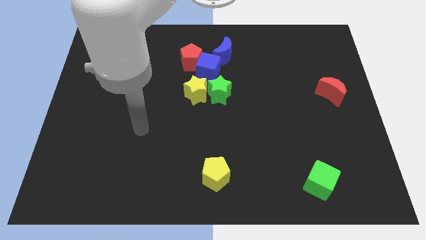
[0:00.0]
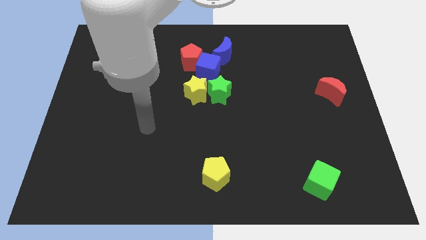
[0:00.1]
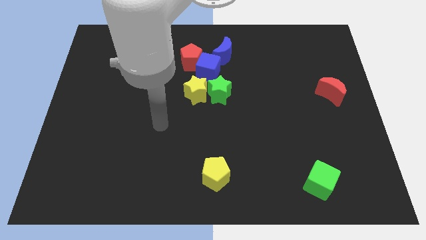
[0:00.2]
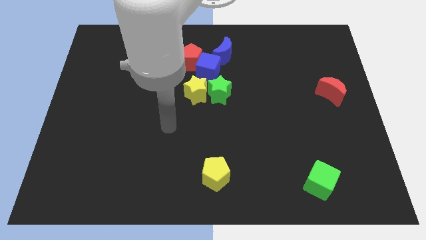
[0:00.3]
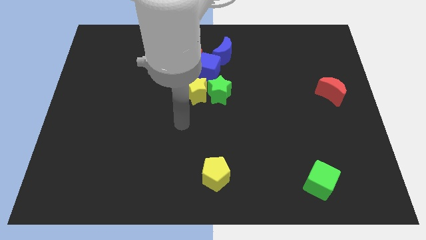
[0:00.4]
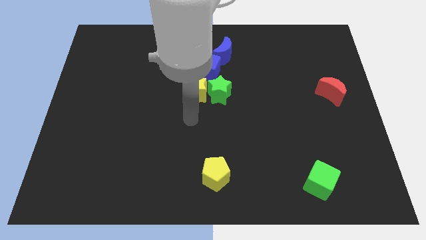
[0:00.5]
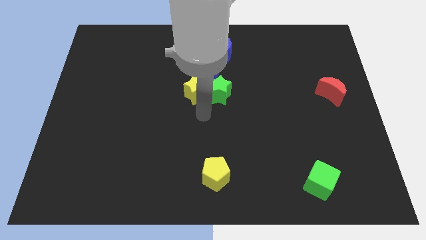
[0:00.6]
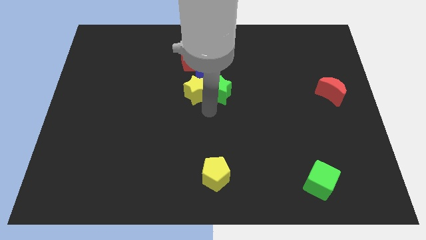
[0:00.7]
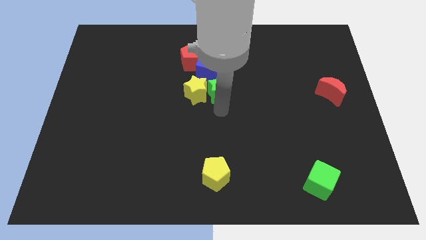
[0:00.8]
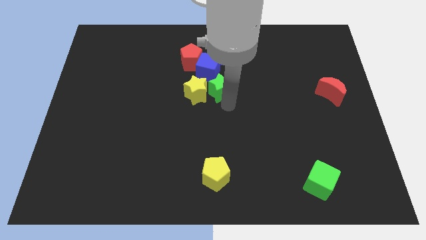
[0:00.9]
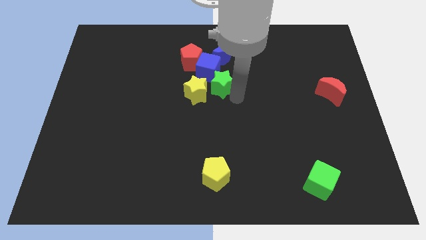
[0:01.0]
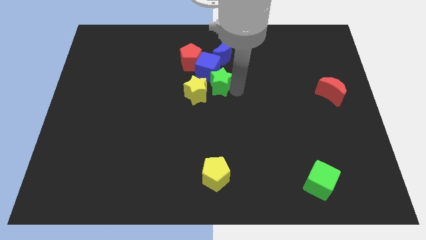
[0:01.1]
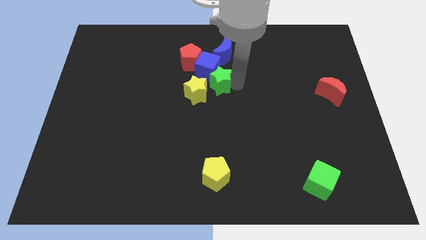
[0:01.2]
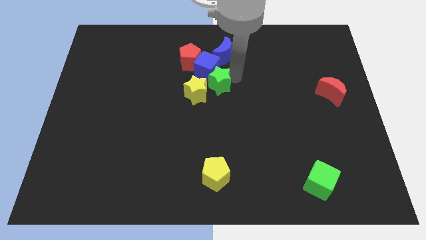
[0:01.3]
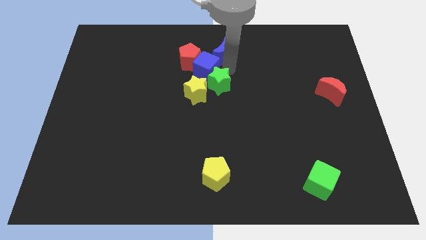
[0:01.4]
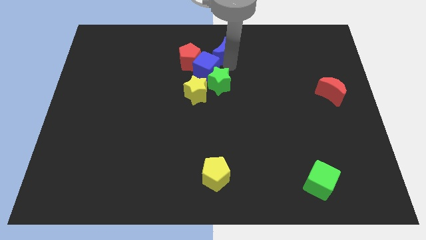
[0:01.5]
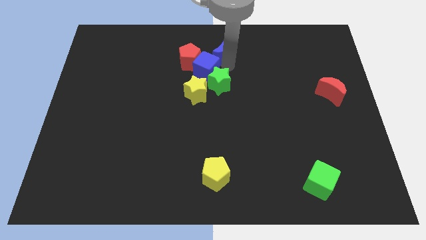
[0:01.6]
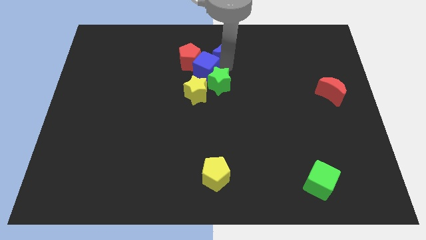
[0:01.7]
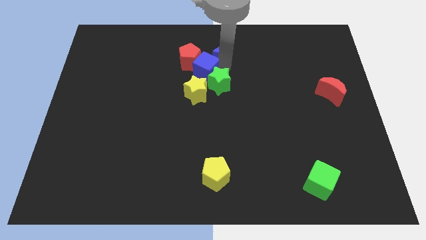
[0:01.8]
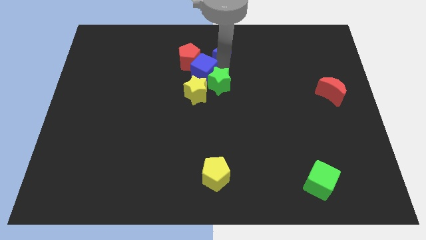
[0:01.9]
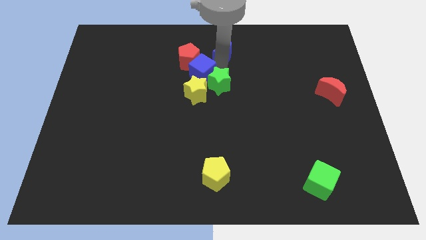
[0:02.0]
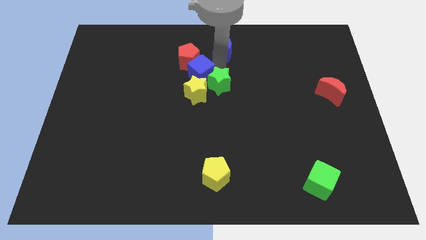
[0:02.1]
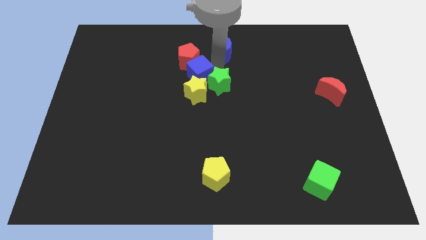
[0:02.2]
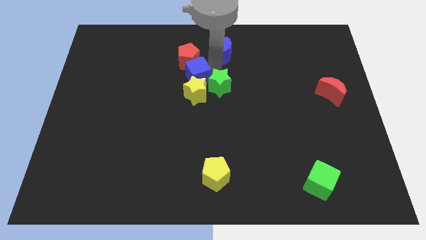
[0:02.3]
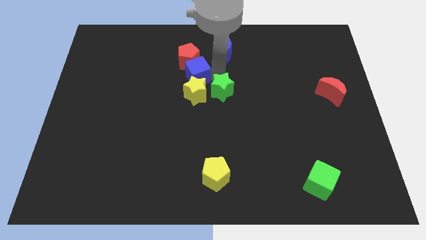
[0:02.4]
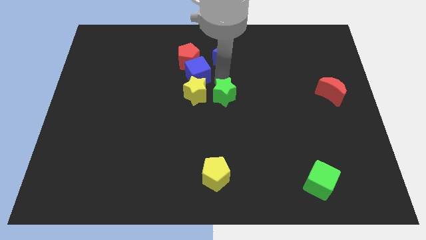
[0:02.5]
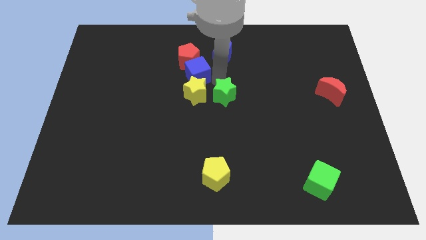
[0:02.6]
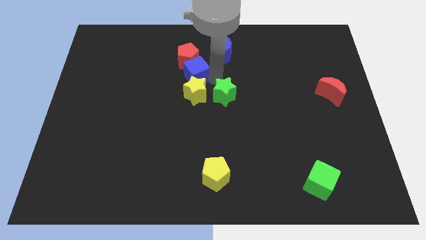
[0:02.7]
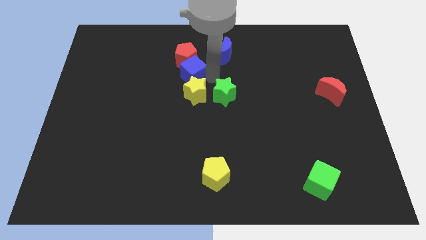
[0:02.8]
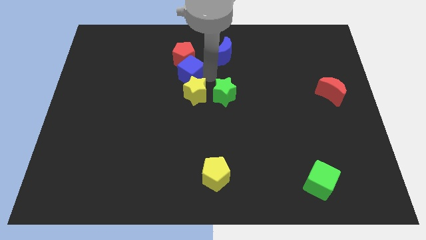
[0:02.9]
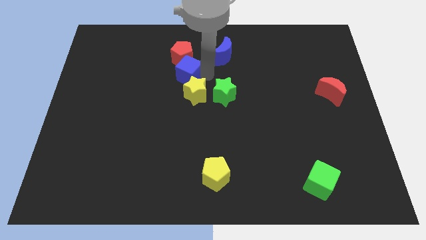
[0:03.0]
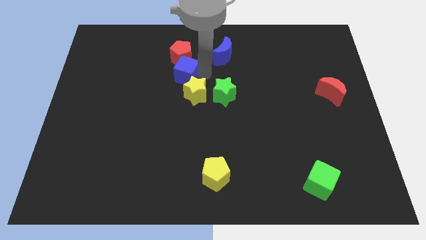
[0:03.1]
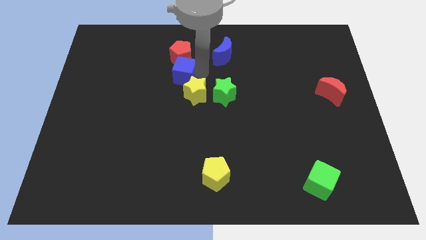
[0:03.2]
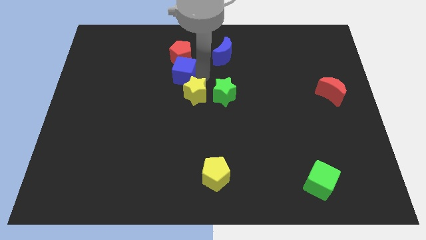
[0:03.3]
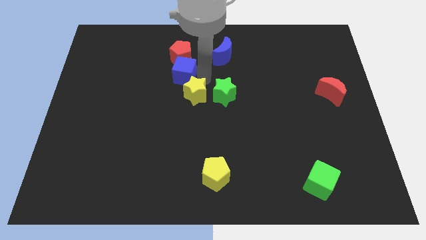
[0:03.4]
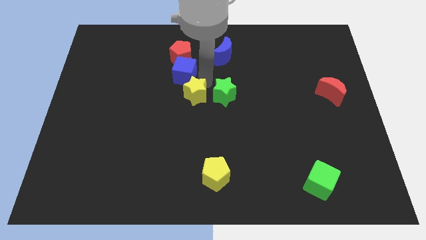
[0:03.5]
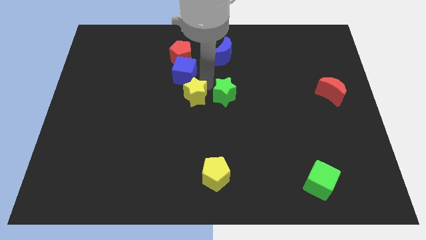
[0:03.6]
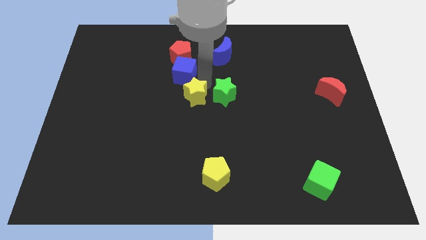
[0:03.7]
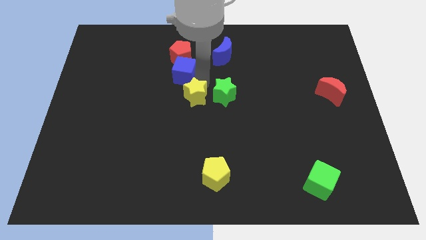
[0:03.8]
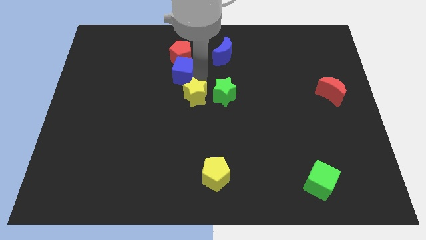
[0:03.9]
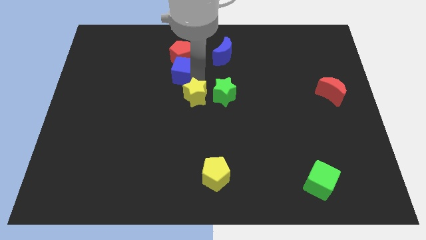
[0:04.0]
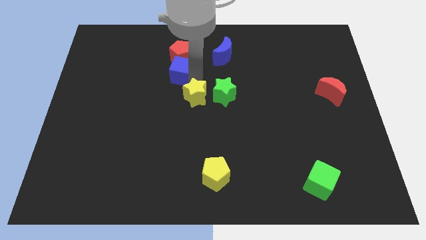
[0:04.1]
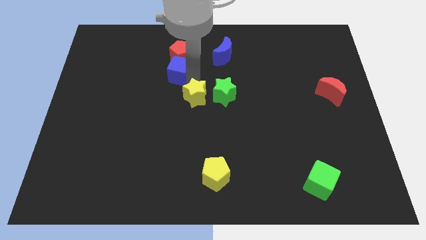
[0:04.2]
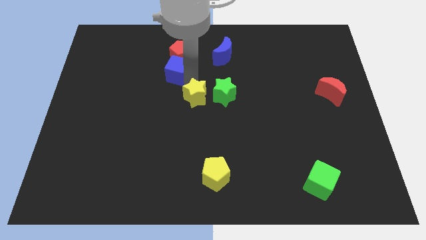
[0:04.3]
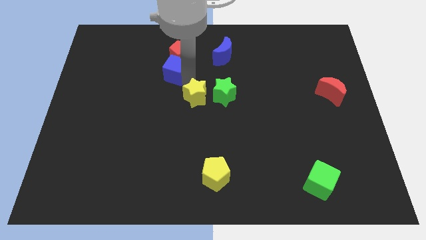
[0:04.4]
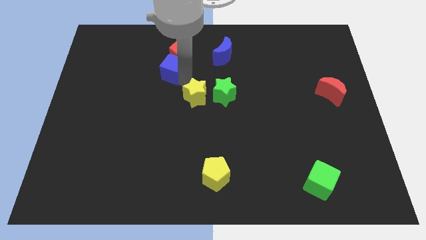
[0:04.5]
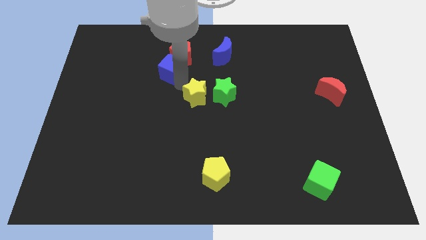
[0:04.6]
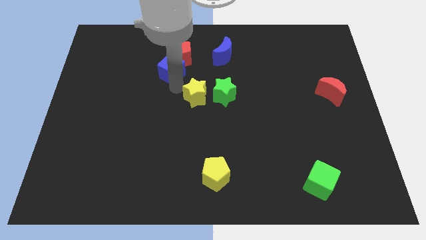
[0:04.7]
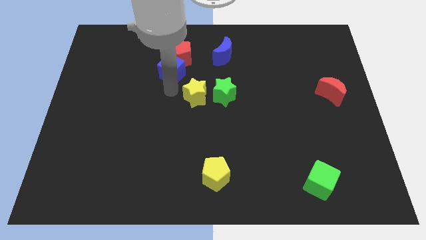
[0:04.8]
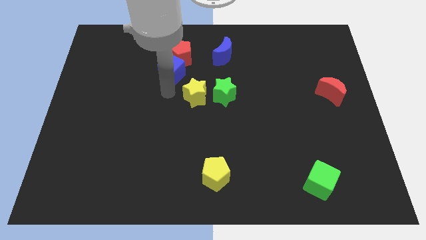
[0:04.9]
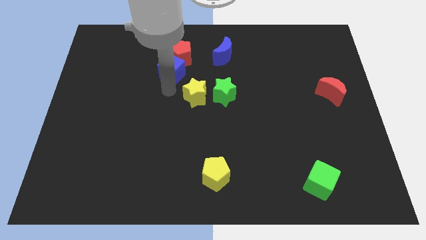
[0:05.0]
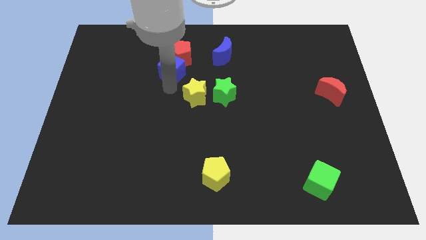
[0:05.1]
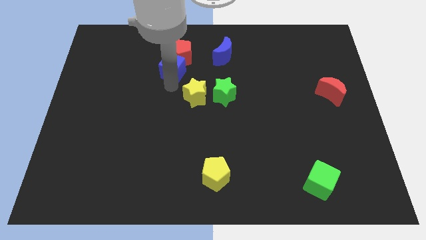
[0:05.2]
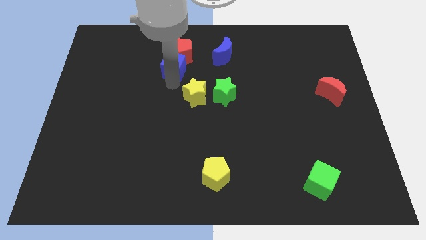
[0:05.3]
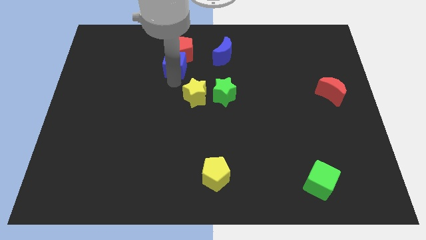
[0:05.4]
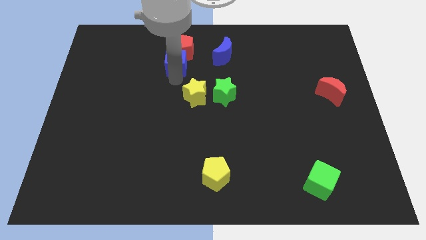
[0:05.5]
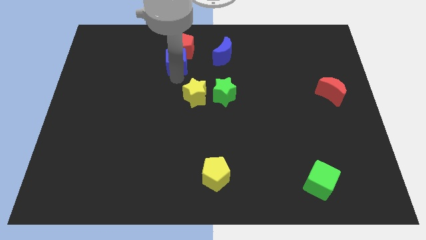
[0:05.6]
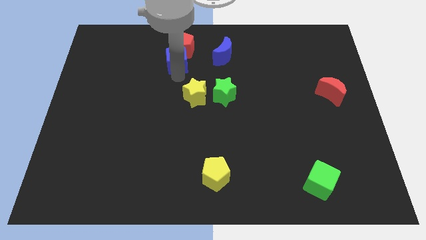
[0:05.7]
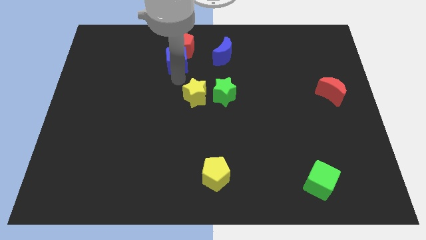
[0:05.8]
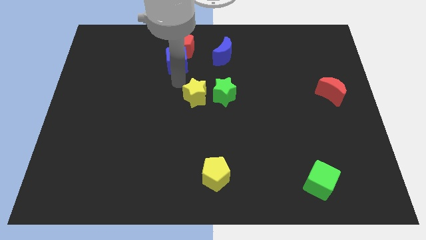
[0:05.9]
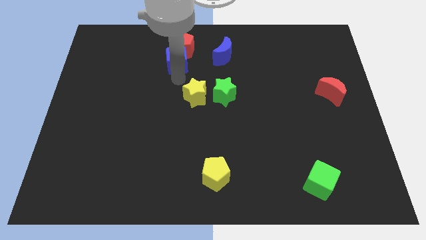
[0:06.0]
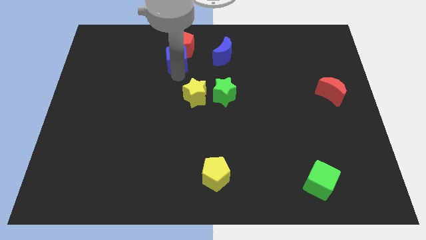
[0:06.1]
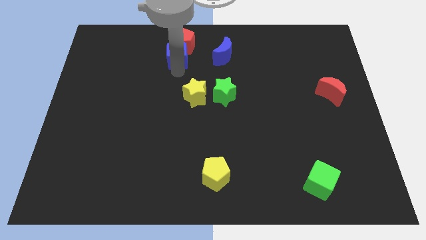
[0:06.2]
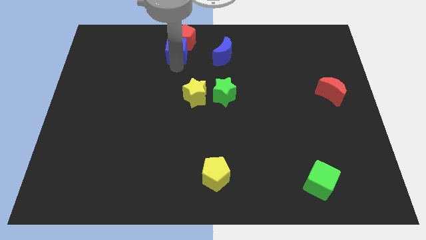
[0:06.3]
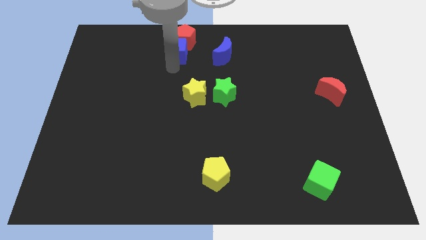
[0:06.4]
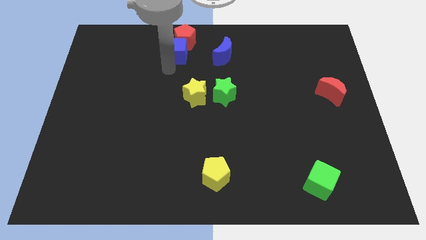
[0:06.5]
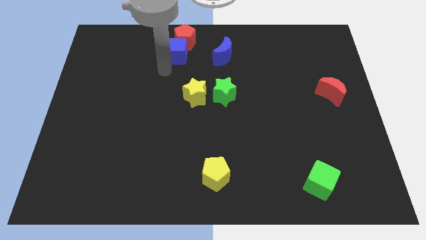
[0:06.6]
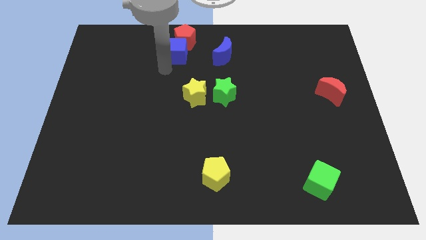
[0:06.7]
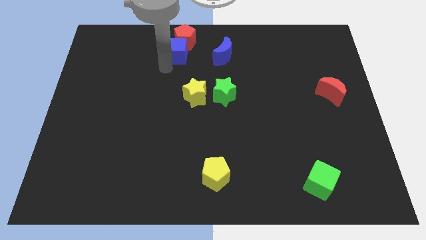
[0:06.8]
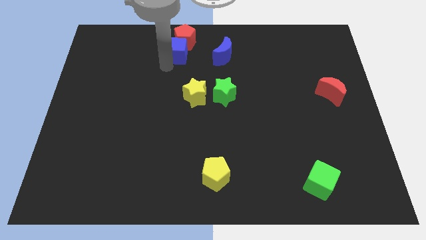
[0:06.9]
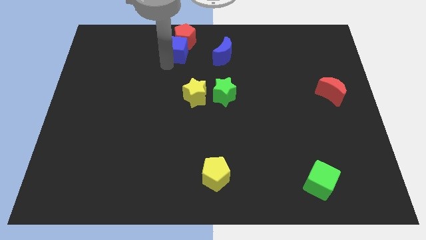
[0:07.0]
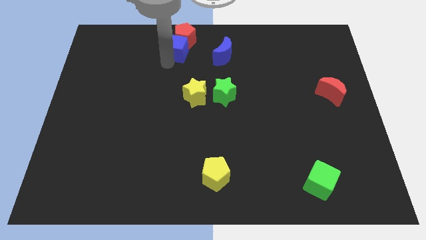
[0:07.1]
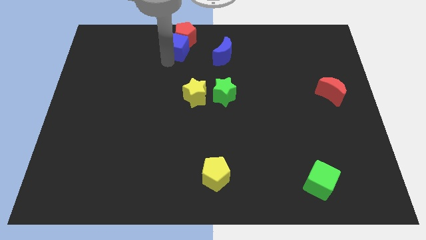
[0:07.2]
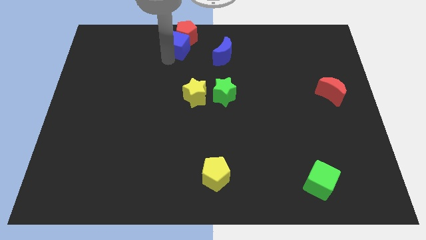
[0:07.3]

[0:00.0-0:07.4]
slide the blue cube to the top
